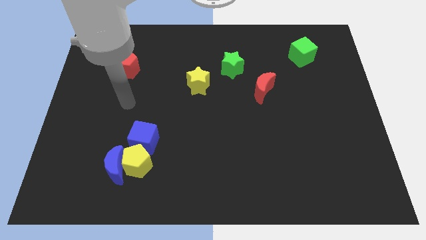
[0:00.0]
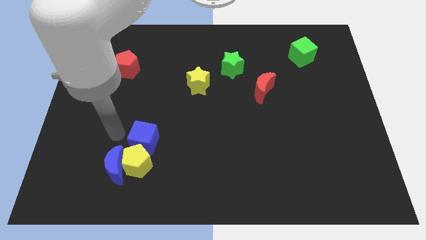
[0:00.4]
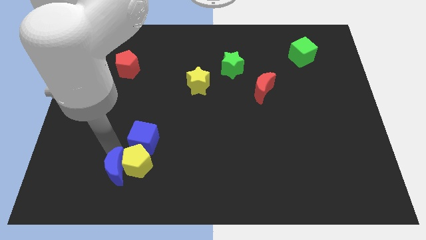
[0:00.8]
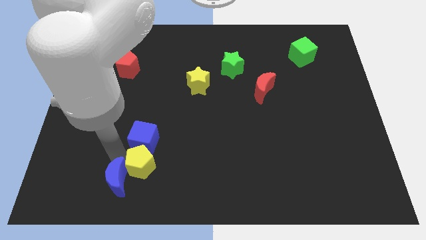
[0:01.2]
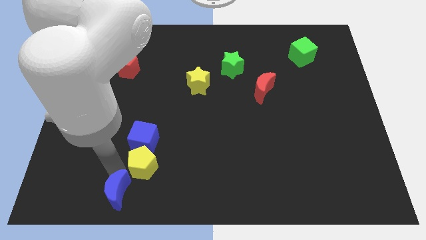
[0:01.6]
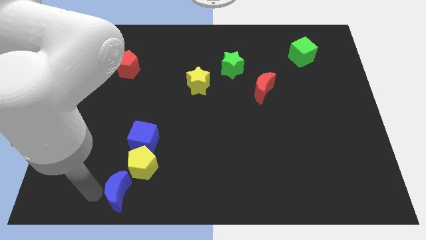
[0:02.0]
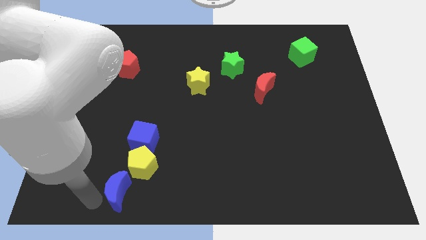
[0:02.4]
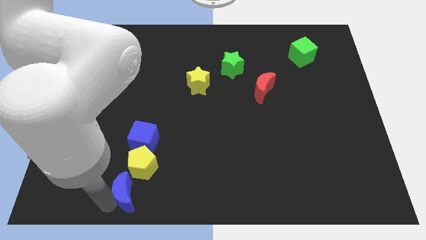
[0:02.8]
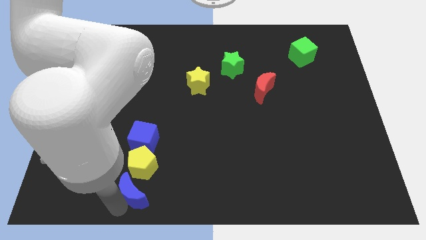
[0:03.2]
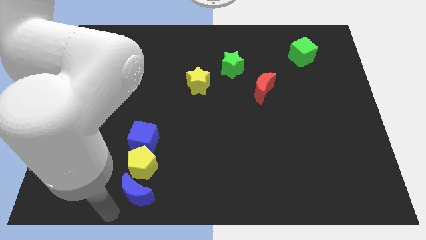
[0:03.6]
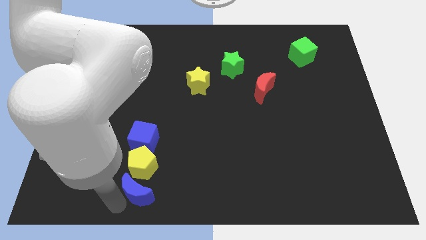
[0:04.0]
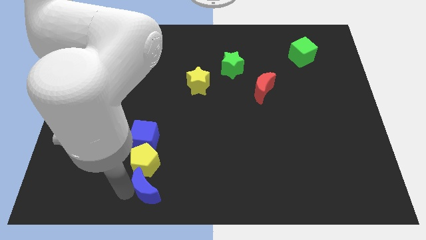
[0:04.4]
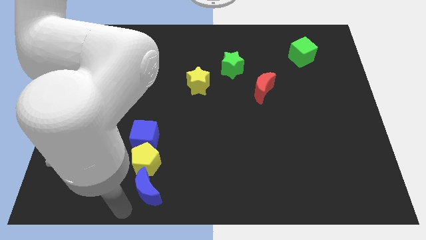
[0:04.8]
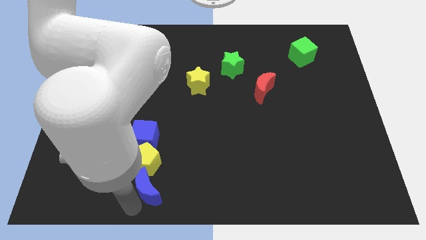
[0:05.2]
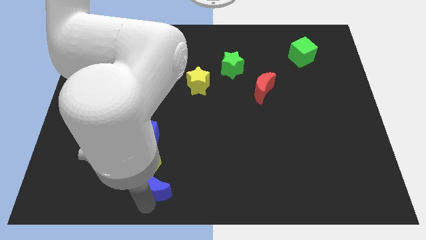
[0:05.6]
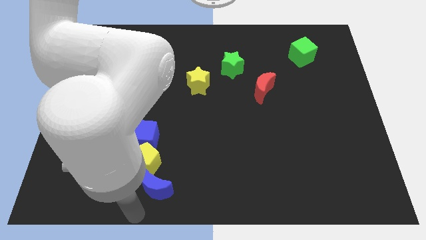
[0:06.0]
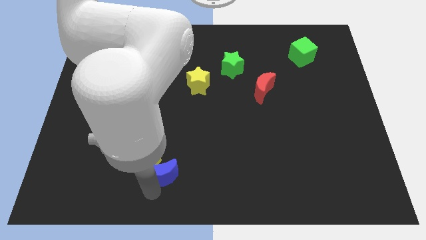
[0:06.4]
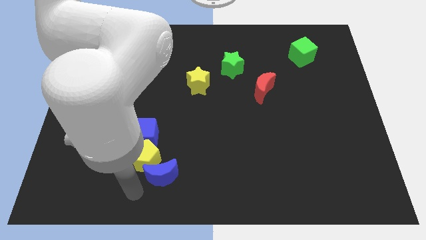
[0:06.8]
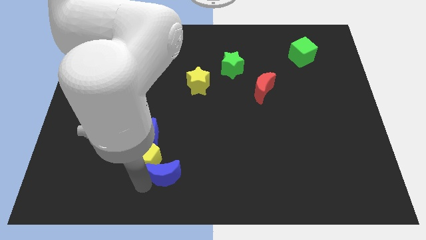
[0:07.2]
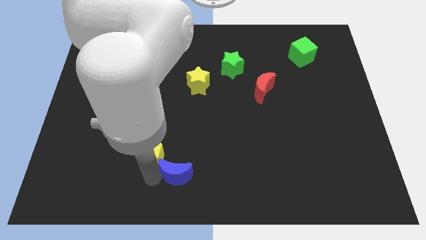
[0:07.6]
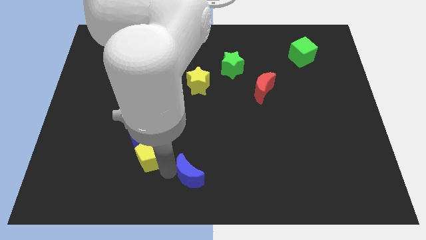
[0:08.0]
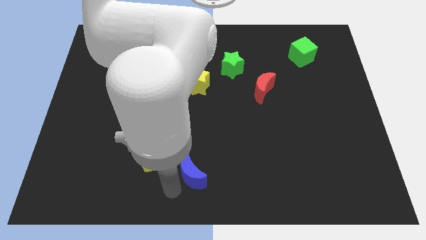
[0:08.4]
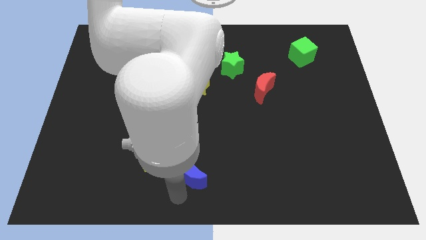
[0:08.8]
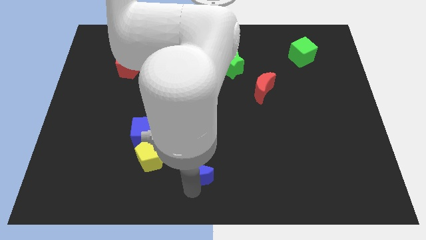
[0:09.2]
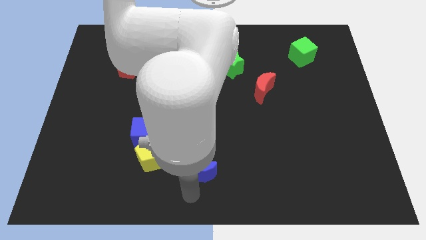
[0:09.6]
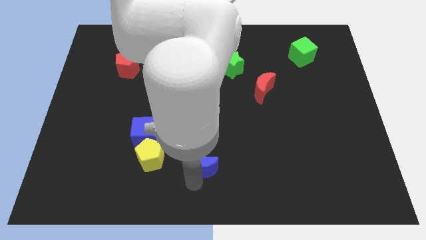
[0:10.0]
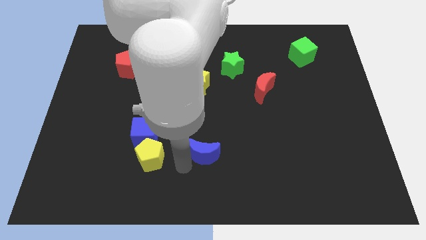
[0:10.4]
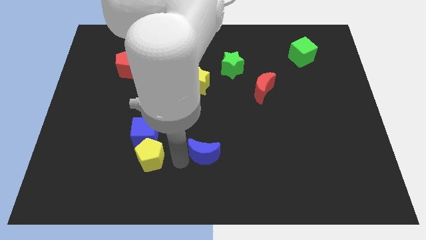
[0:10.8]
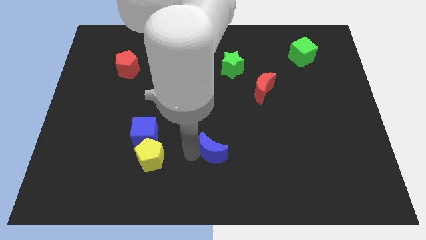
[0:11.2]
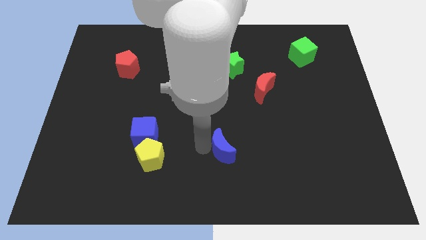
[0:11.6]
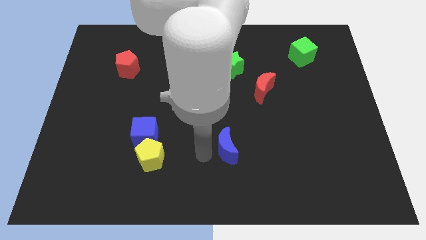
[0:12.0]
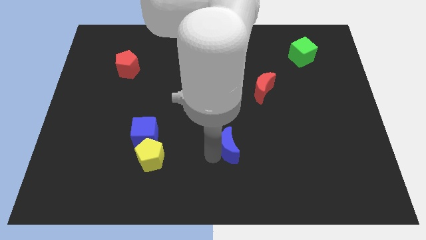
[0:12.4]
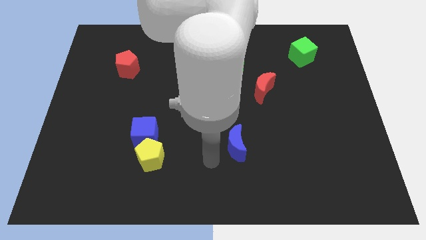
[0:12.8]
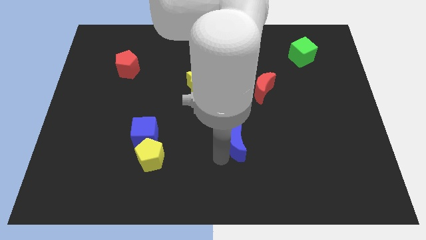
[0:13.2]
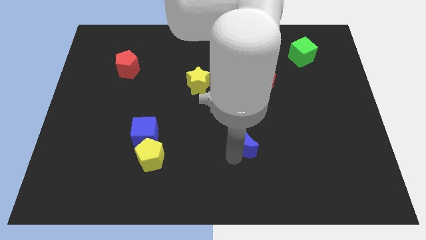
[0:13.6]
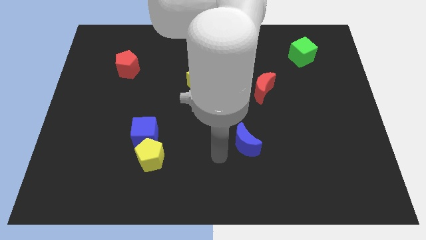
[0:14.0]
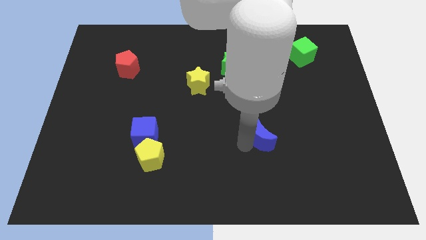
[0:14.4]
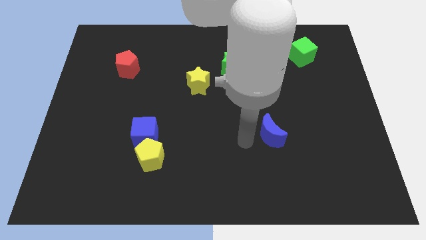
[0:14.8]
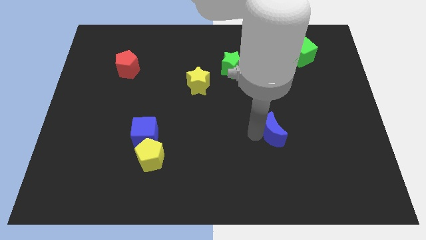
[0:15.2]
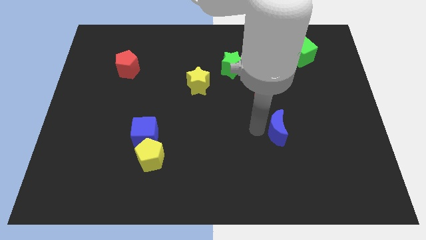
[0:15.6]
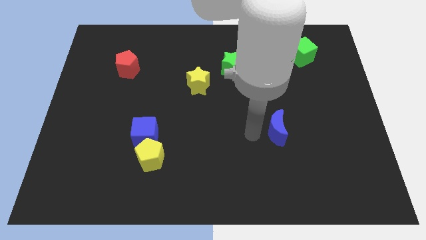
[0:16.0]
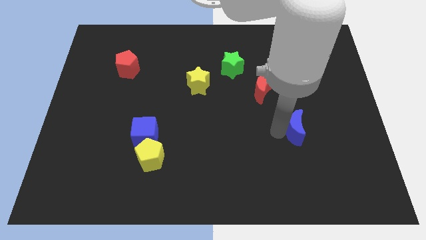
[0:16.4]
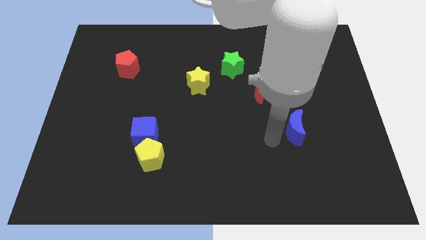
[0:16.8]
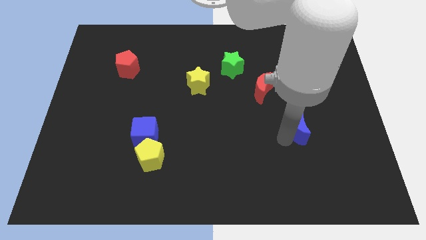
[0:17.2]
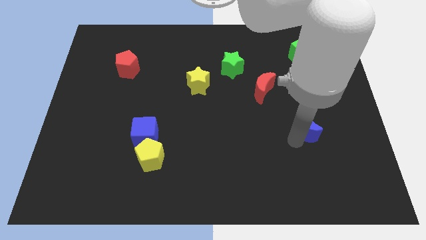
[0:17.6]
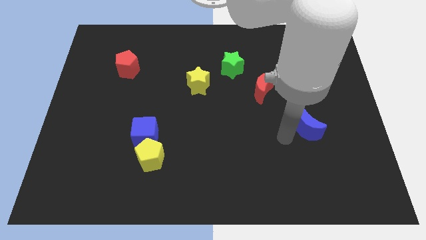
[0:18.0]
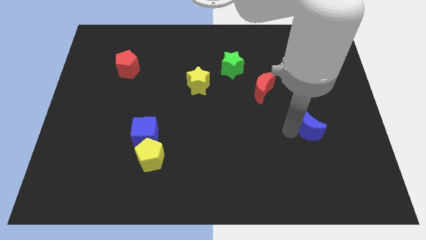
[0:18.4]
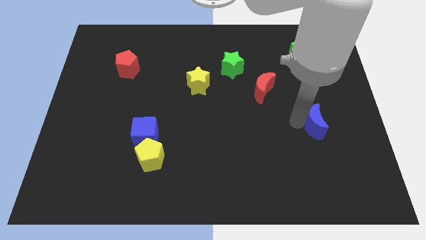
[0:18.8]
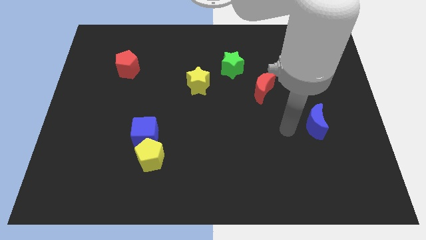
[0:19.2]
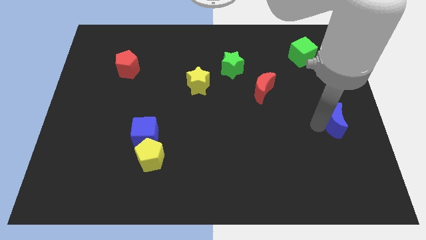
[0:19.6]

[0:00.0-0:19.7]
slide the blue moon to the right side of the board

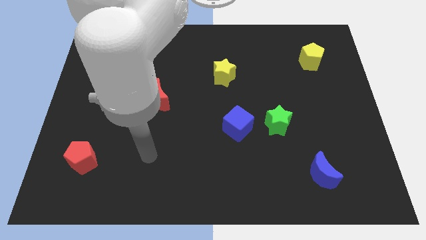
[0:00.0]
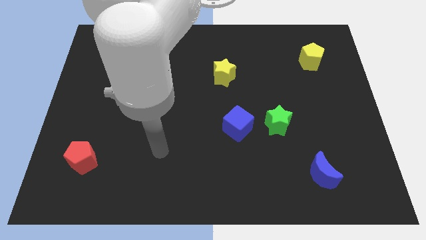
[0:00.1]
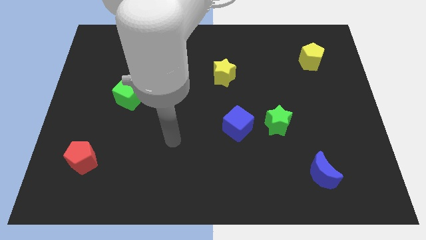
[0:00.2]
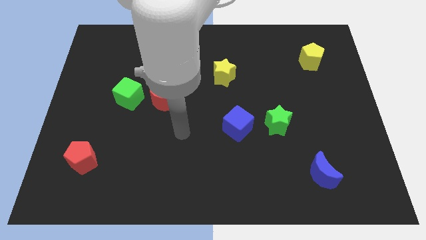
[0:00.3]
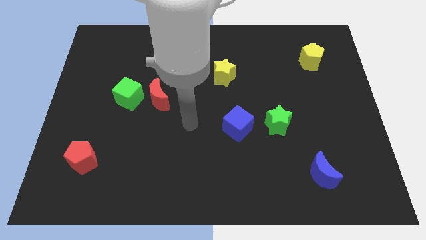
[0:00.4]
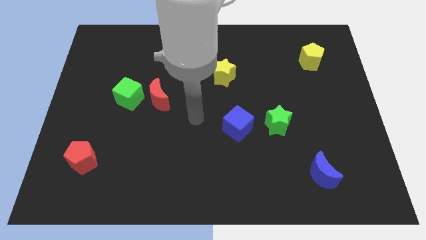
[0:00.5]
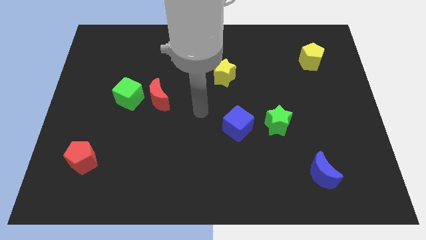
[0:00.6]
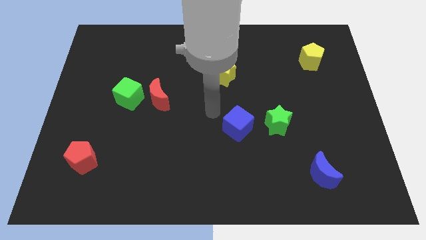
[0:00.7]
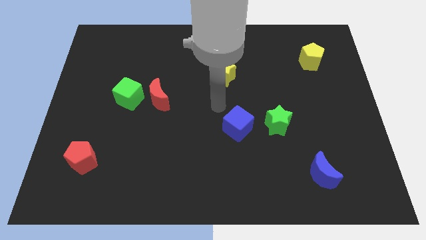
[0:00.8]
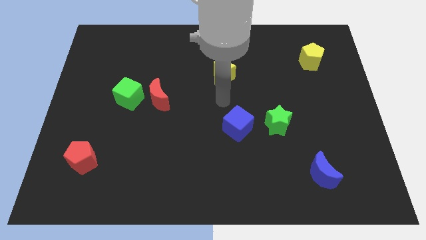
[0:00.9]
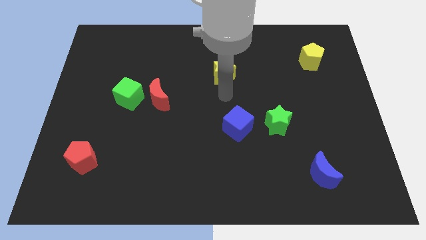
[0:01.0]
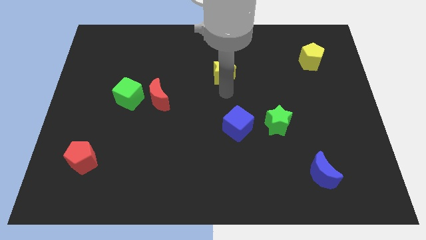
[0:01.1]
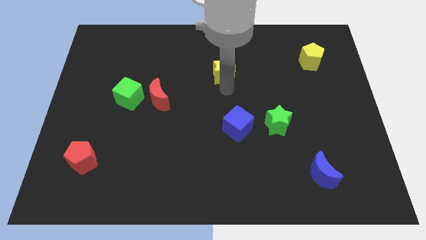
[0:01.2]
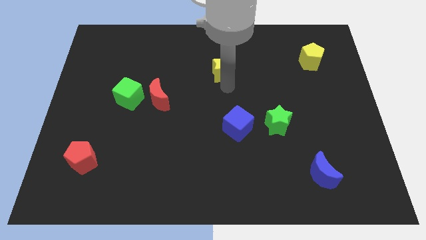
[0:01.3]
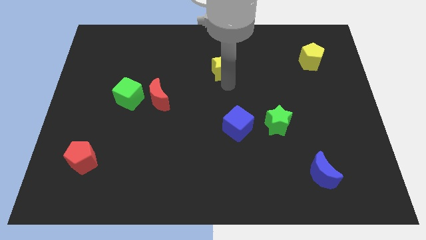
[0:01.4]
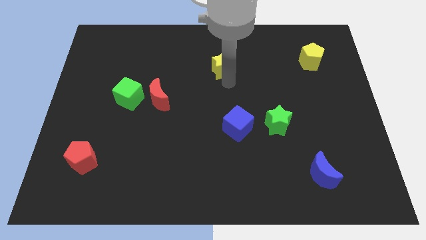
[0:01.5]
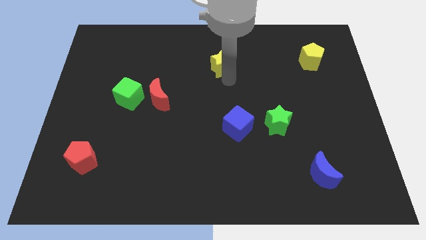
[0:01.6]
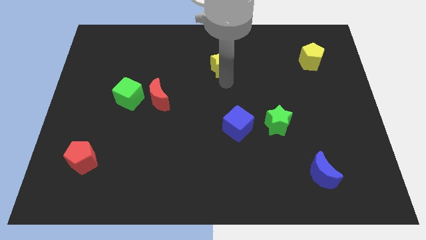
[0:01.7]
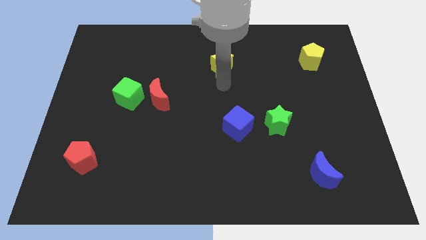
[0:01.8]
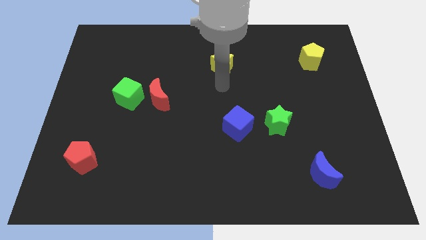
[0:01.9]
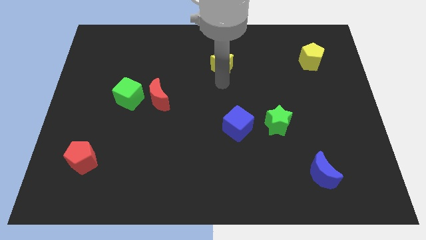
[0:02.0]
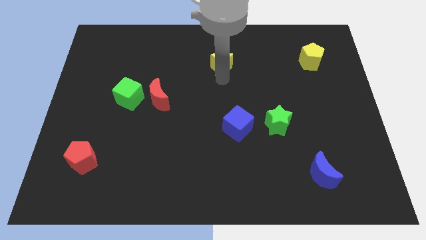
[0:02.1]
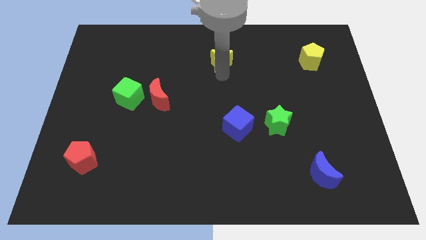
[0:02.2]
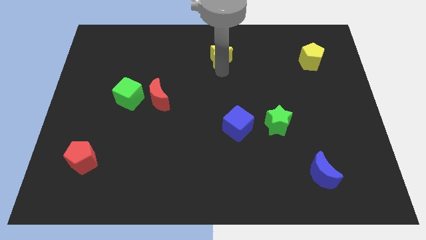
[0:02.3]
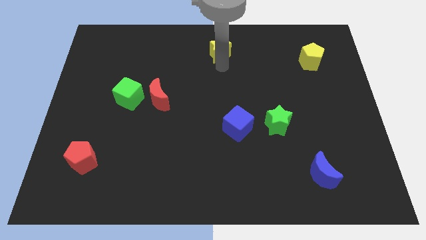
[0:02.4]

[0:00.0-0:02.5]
slide the yellow star to the towards your base

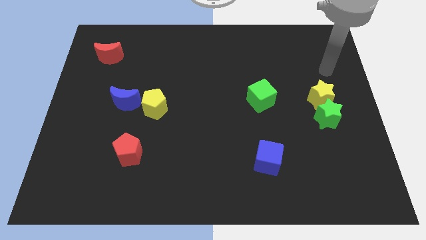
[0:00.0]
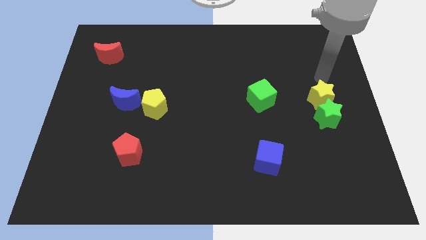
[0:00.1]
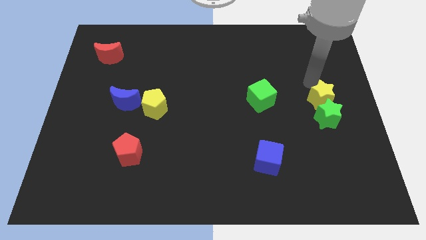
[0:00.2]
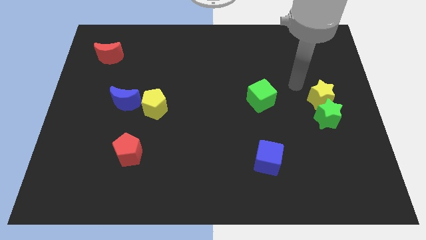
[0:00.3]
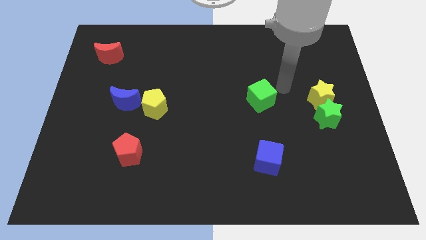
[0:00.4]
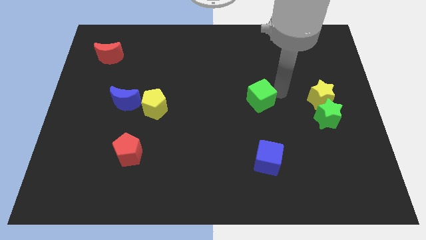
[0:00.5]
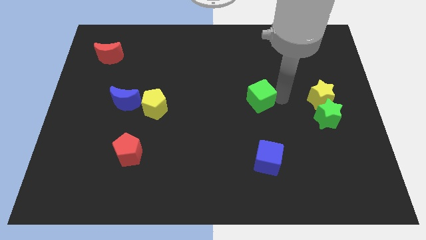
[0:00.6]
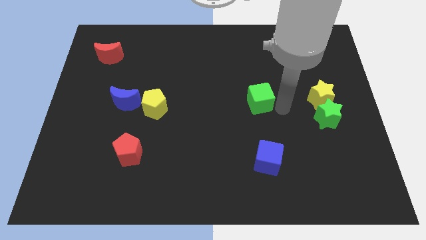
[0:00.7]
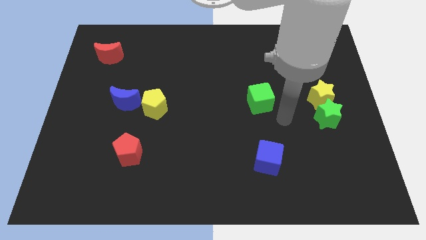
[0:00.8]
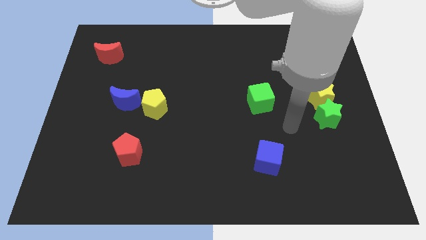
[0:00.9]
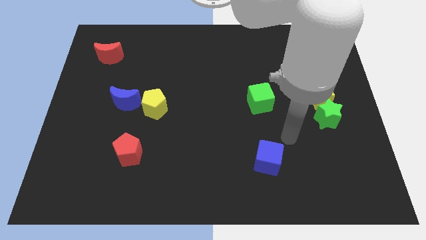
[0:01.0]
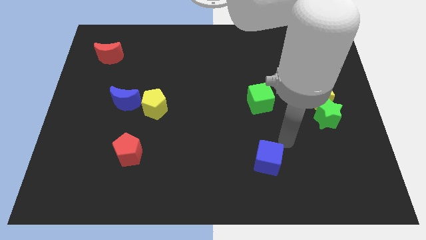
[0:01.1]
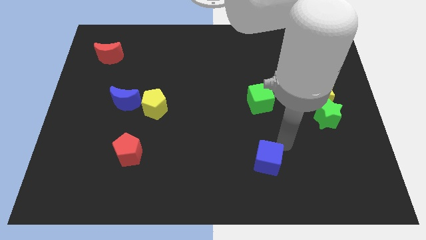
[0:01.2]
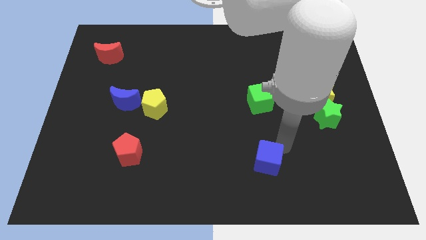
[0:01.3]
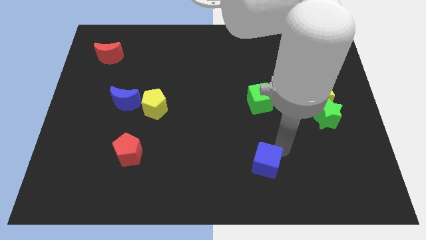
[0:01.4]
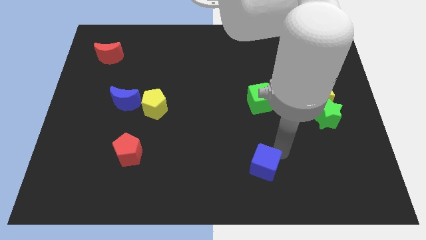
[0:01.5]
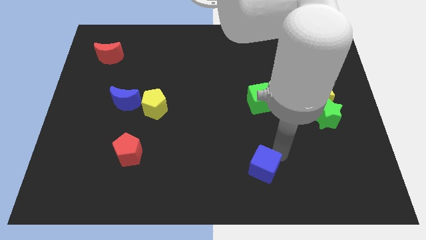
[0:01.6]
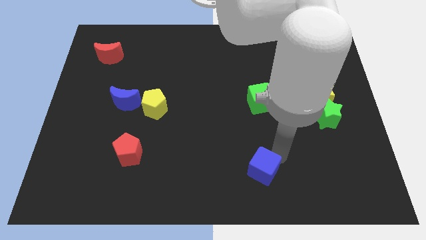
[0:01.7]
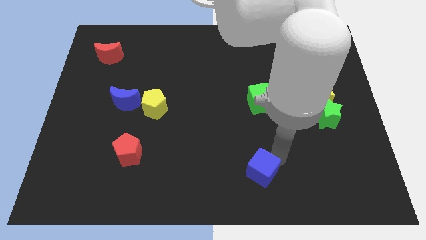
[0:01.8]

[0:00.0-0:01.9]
push the blue cube to the bottom
